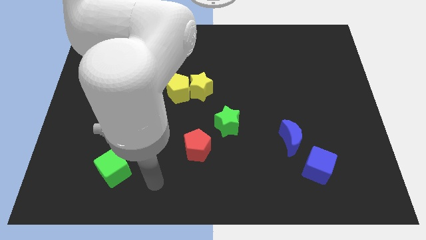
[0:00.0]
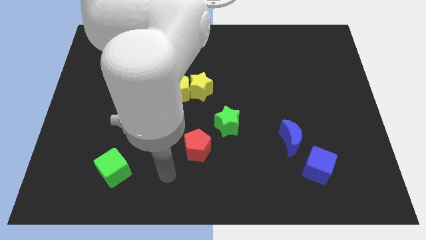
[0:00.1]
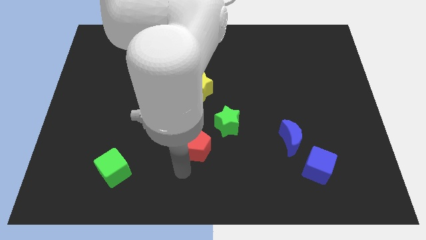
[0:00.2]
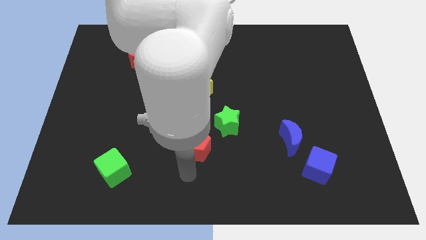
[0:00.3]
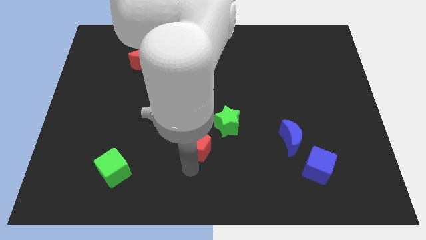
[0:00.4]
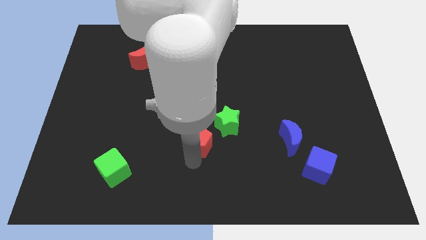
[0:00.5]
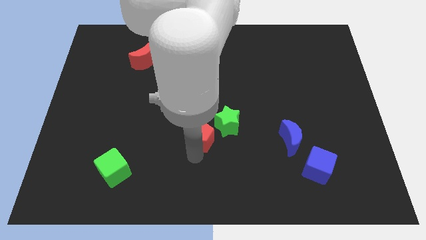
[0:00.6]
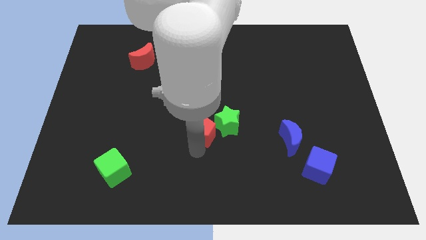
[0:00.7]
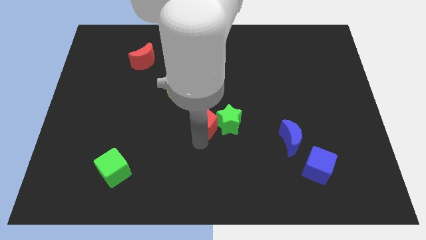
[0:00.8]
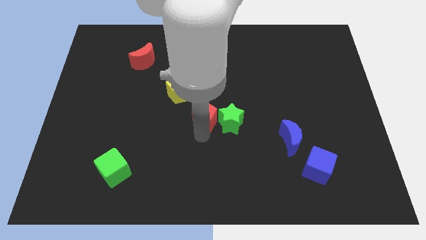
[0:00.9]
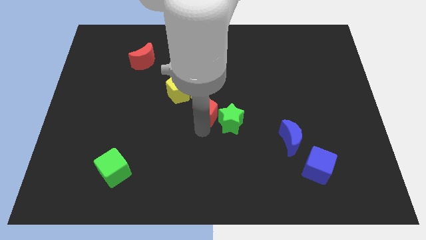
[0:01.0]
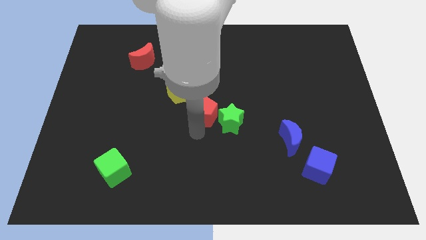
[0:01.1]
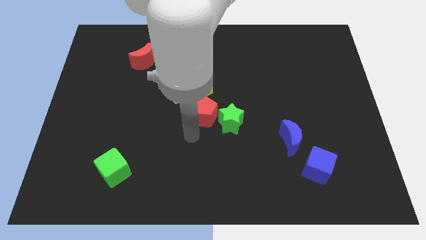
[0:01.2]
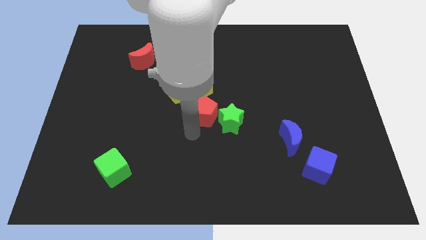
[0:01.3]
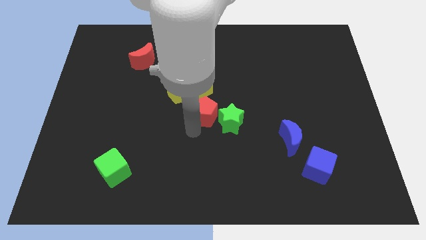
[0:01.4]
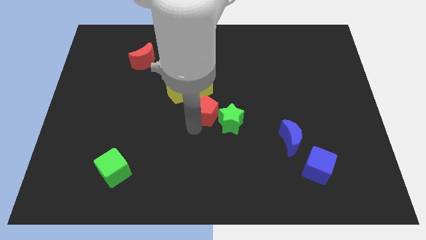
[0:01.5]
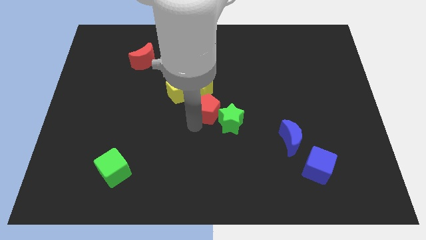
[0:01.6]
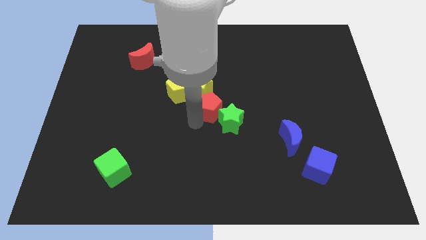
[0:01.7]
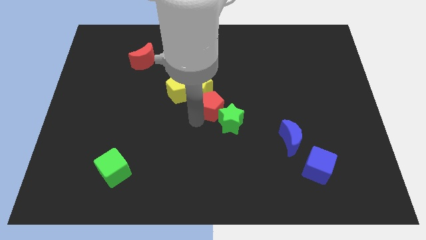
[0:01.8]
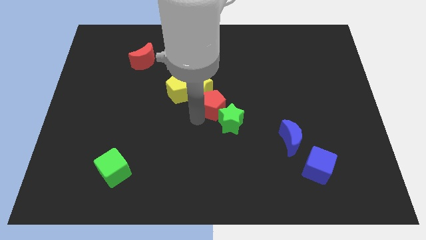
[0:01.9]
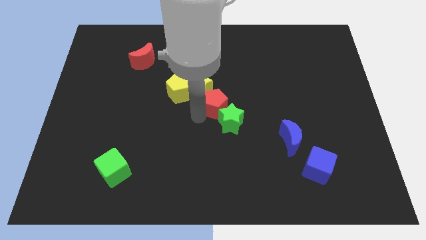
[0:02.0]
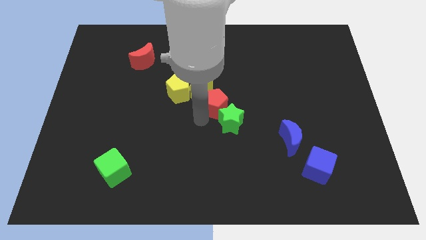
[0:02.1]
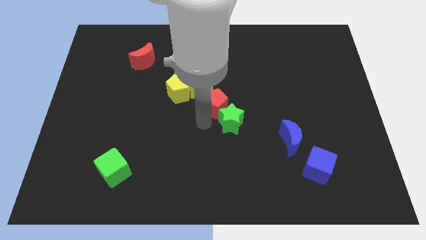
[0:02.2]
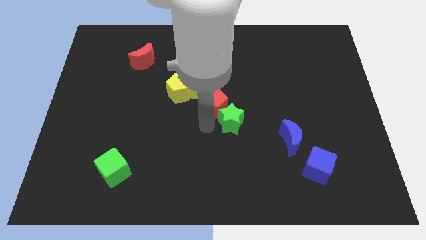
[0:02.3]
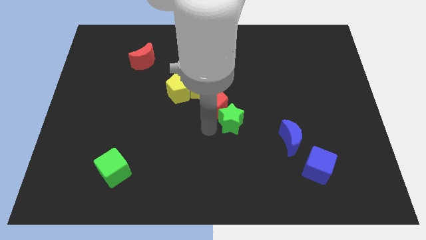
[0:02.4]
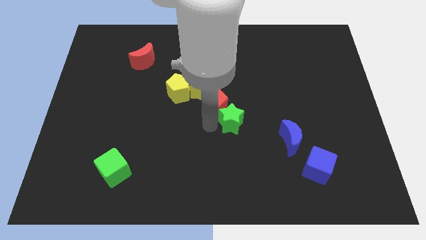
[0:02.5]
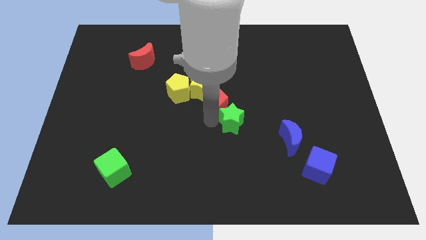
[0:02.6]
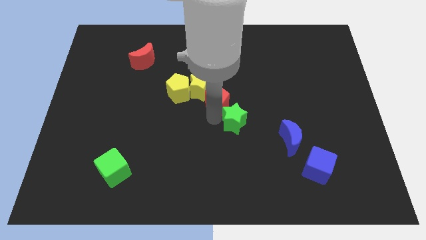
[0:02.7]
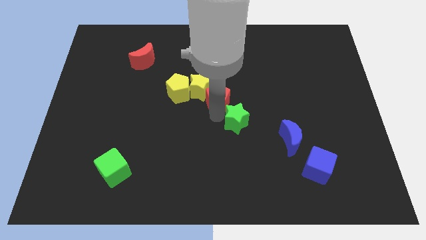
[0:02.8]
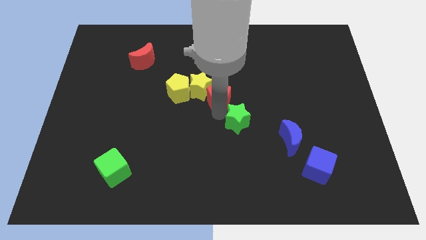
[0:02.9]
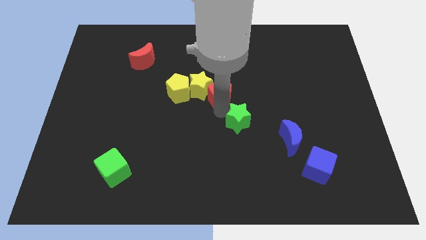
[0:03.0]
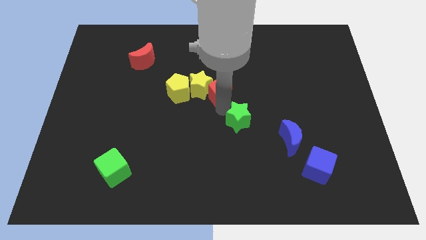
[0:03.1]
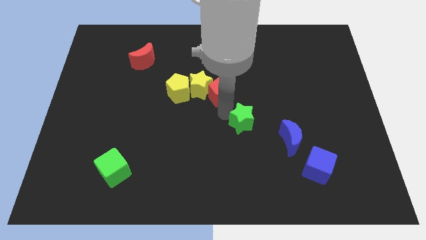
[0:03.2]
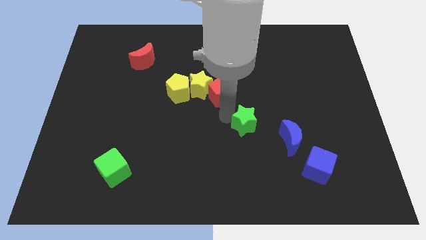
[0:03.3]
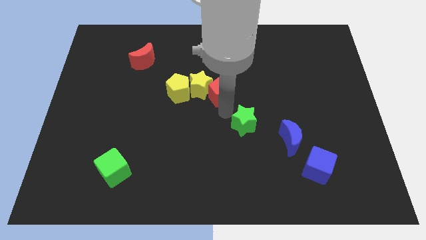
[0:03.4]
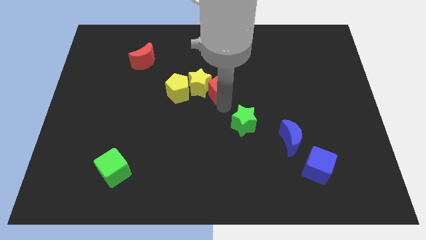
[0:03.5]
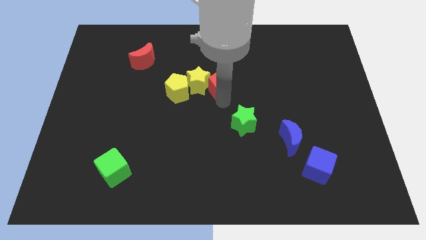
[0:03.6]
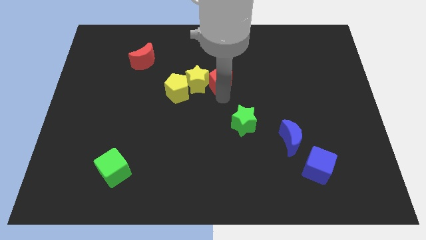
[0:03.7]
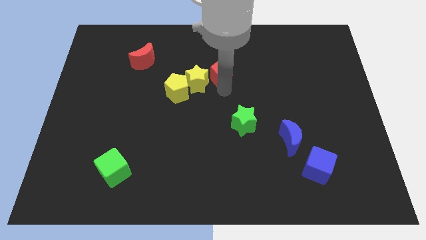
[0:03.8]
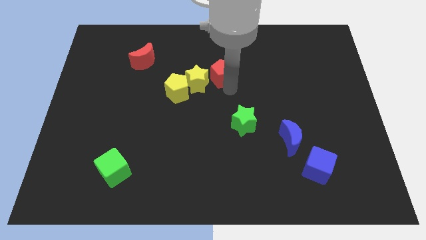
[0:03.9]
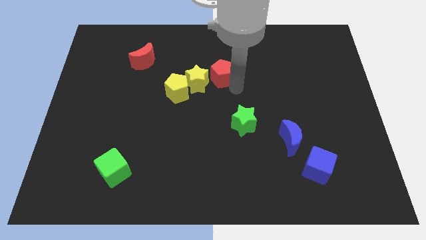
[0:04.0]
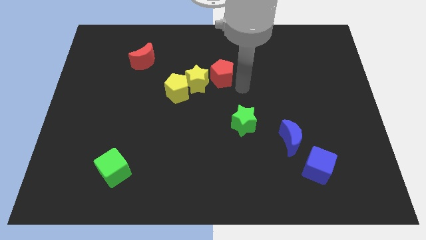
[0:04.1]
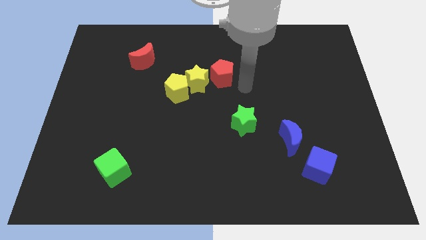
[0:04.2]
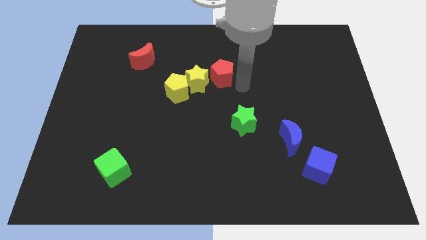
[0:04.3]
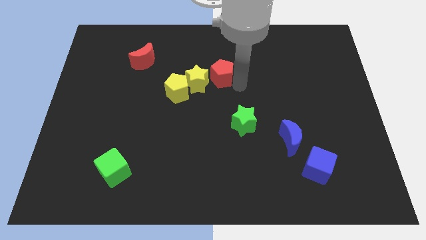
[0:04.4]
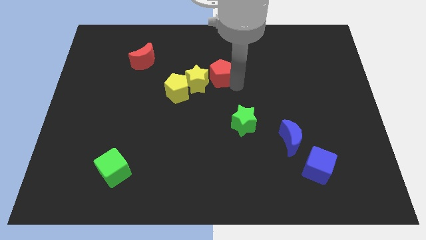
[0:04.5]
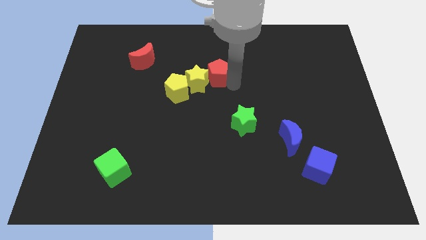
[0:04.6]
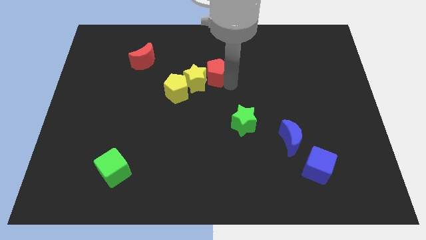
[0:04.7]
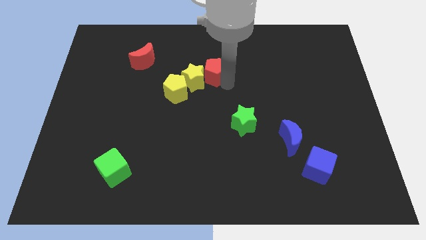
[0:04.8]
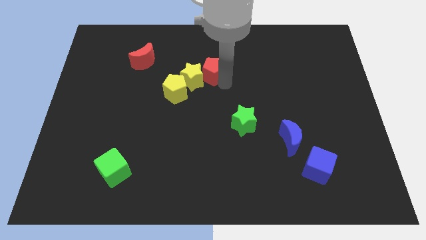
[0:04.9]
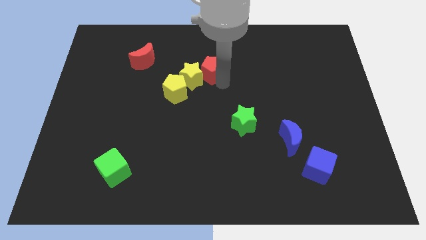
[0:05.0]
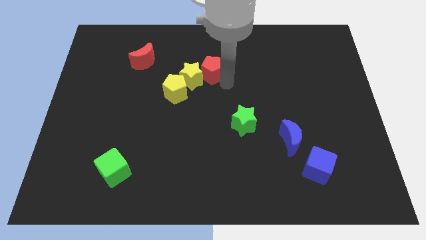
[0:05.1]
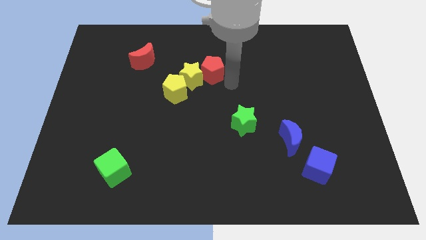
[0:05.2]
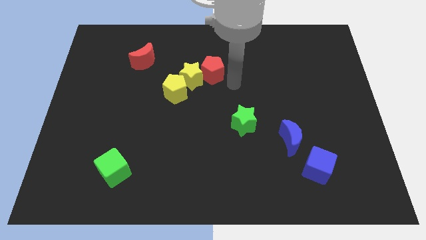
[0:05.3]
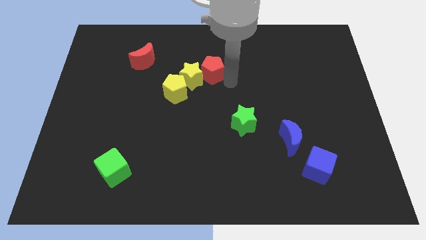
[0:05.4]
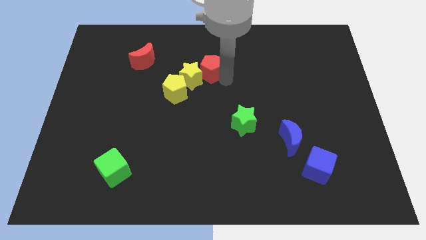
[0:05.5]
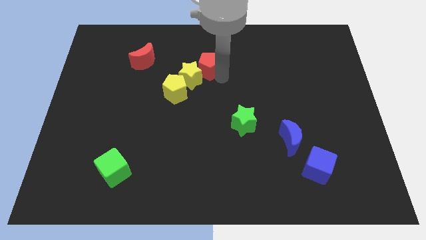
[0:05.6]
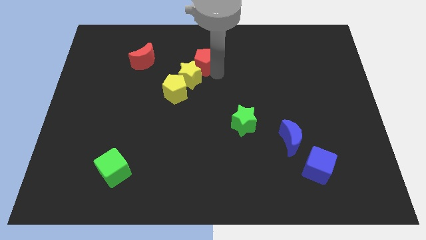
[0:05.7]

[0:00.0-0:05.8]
put the red pentagon just right of the red moon

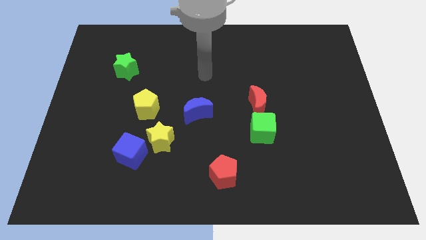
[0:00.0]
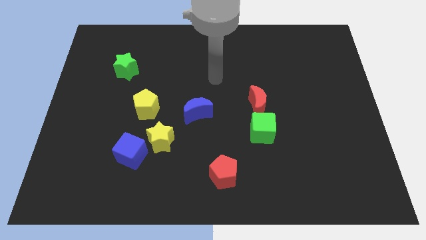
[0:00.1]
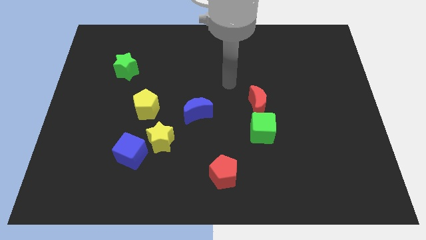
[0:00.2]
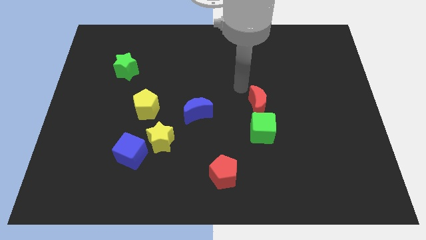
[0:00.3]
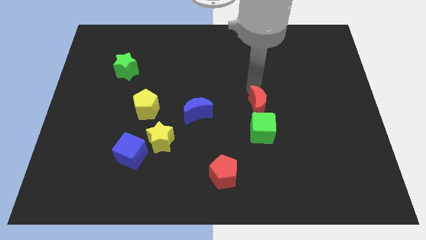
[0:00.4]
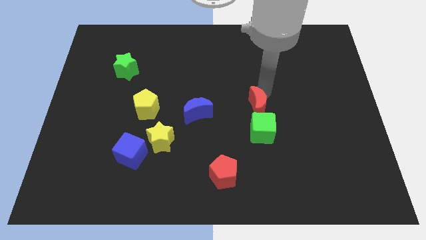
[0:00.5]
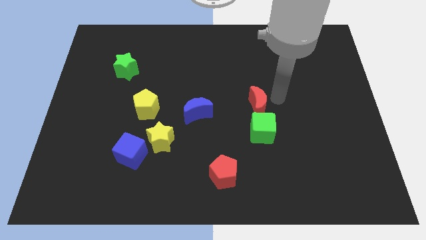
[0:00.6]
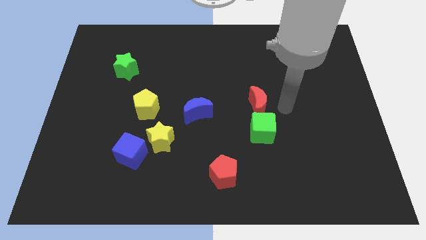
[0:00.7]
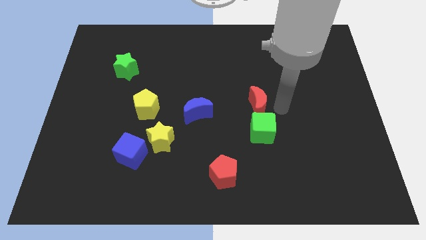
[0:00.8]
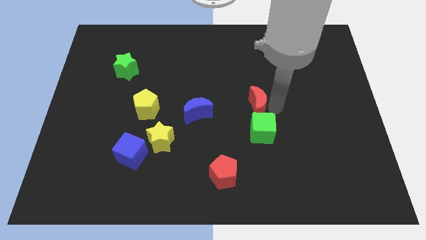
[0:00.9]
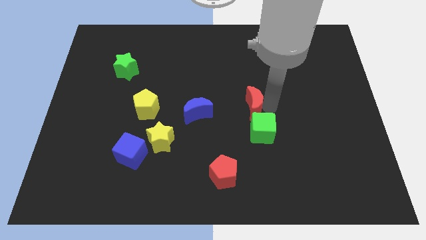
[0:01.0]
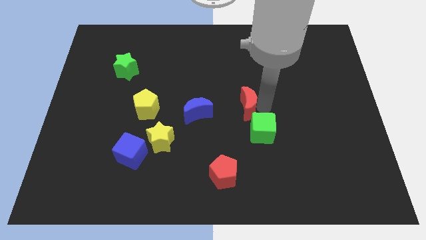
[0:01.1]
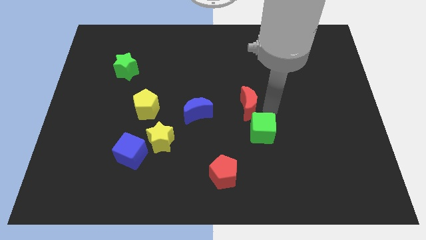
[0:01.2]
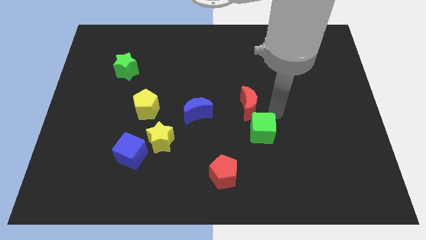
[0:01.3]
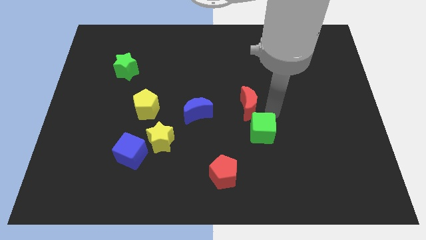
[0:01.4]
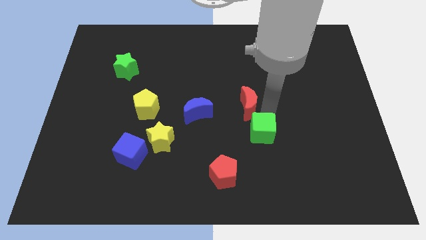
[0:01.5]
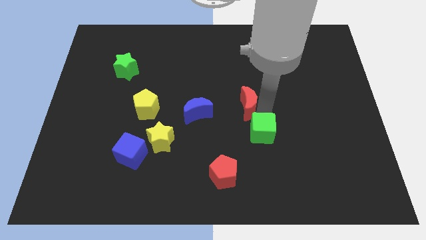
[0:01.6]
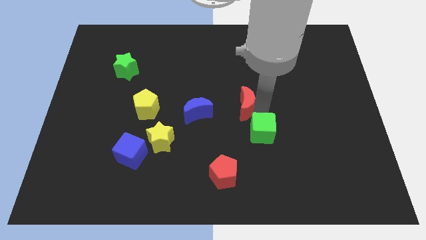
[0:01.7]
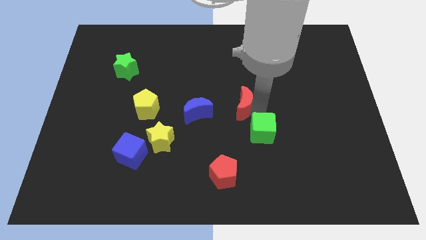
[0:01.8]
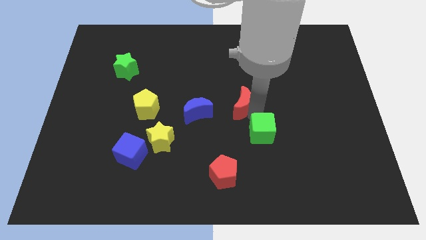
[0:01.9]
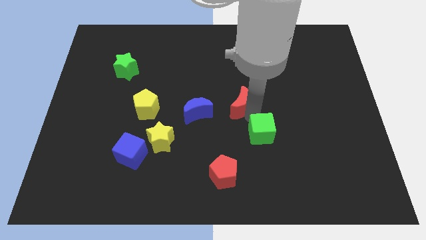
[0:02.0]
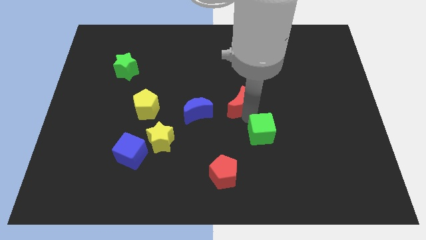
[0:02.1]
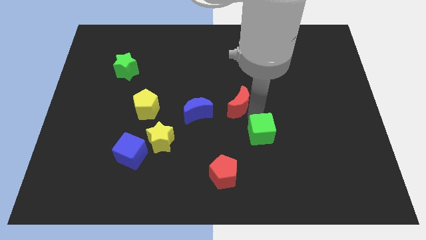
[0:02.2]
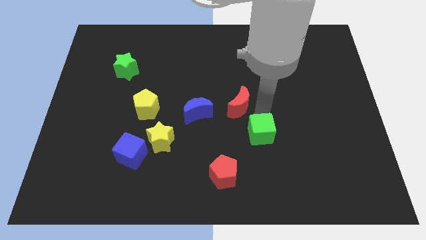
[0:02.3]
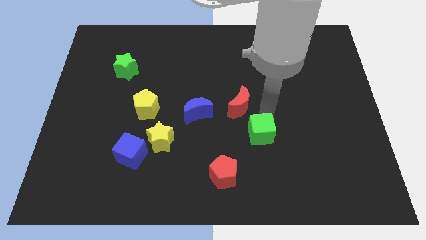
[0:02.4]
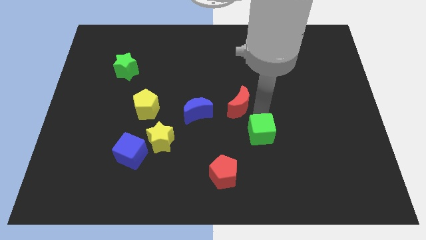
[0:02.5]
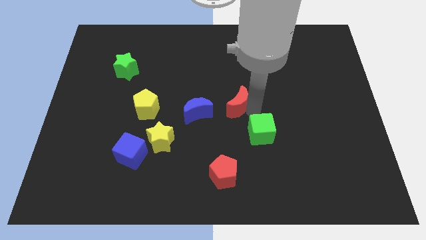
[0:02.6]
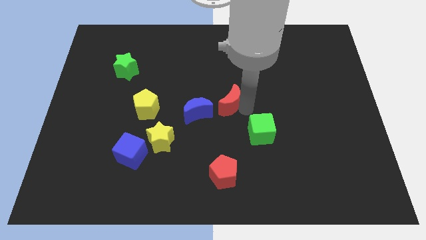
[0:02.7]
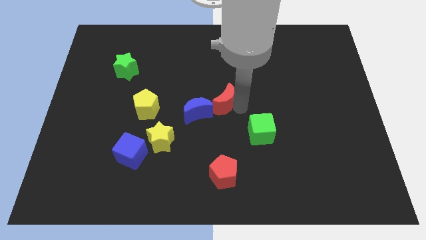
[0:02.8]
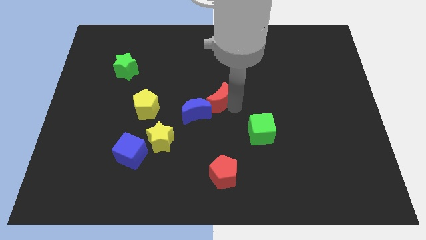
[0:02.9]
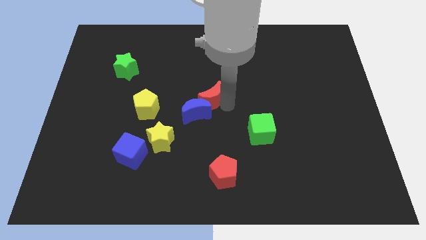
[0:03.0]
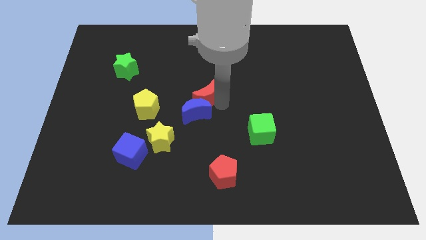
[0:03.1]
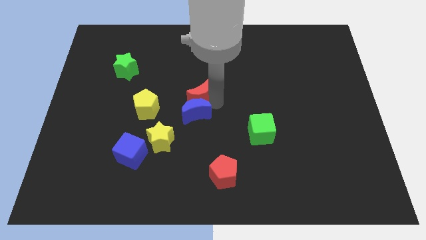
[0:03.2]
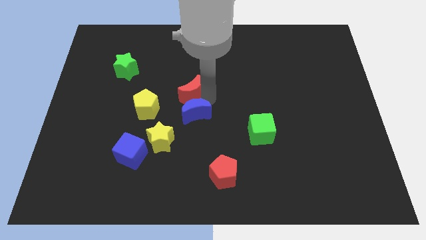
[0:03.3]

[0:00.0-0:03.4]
move the red moon diagonally up and to the right of the yellow pentagon
